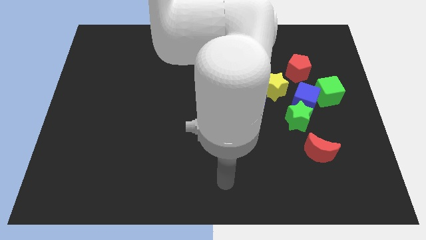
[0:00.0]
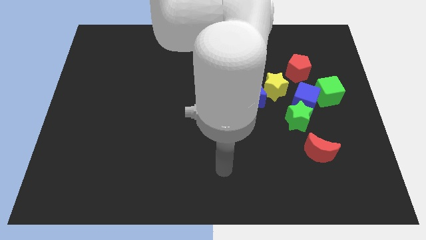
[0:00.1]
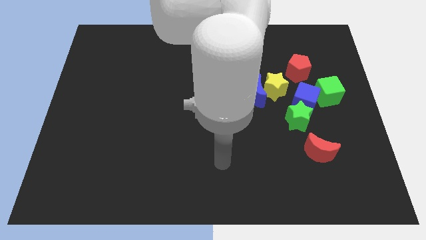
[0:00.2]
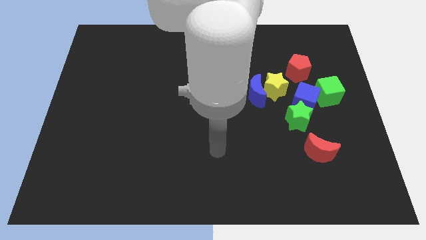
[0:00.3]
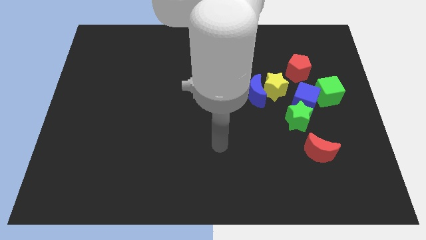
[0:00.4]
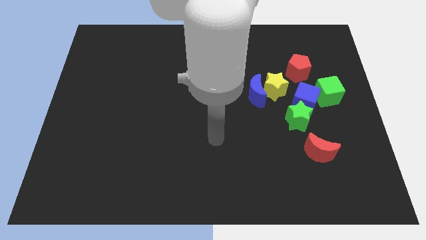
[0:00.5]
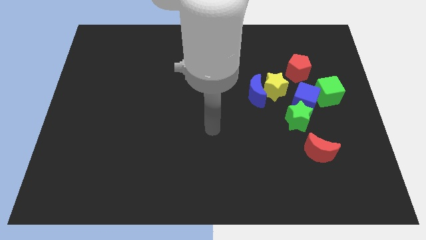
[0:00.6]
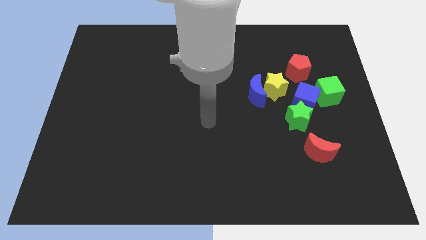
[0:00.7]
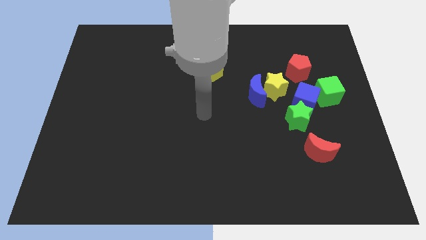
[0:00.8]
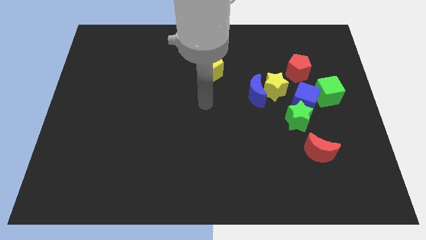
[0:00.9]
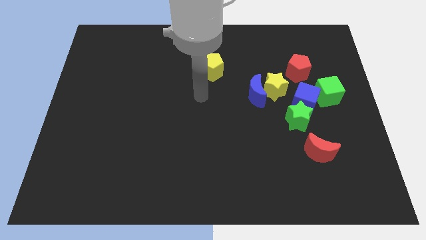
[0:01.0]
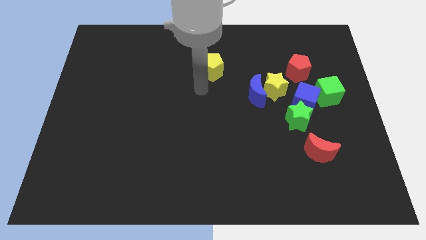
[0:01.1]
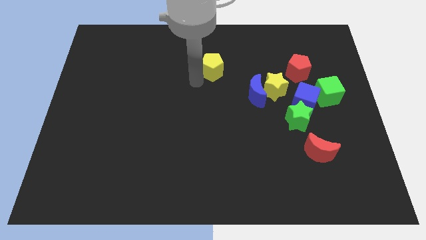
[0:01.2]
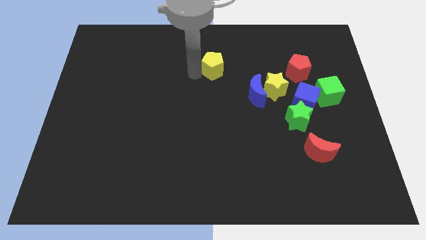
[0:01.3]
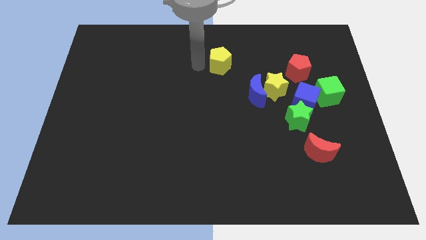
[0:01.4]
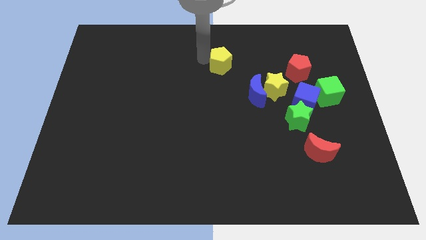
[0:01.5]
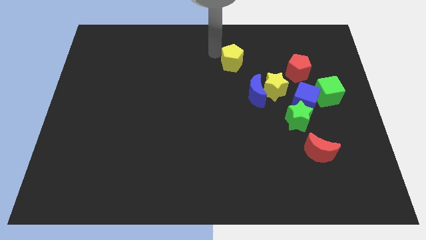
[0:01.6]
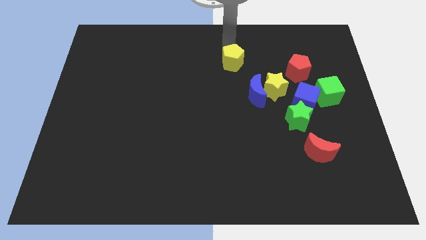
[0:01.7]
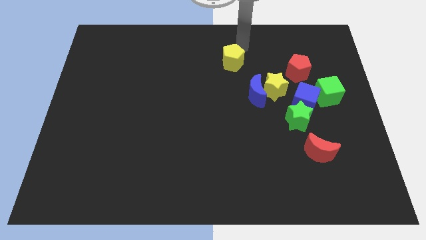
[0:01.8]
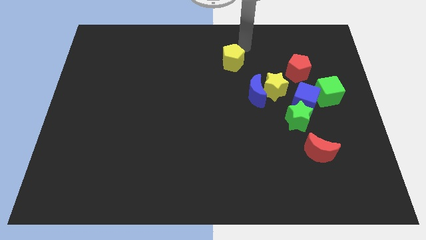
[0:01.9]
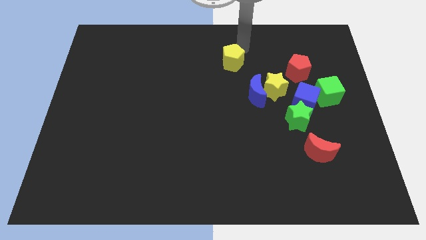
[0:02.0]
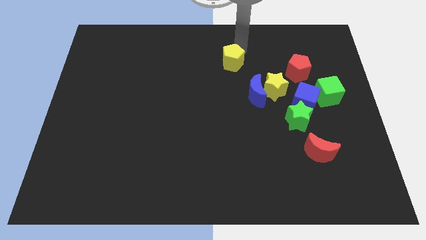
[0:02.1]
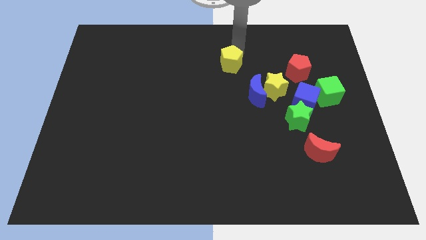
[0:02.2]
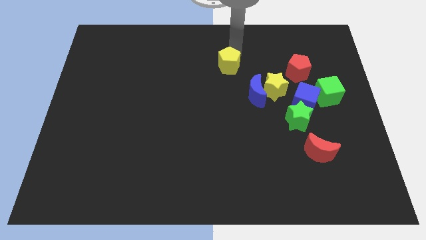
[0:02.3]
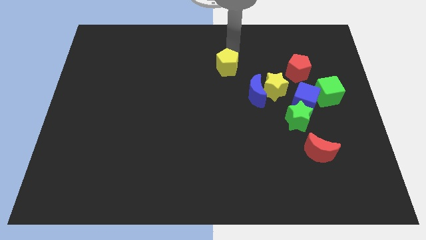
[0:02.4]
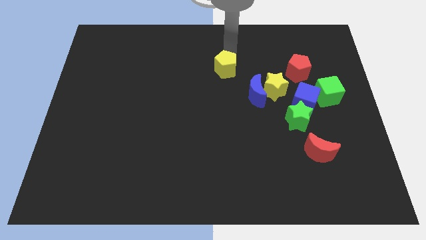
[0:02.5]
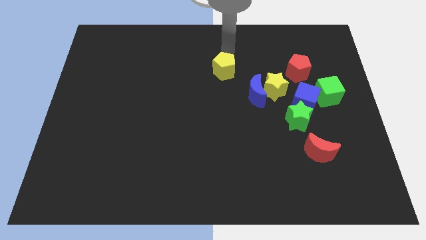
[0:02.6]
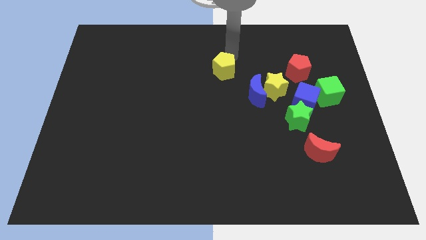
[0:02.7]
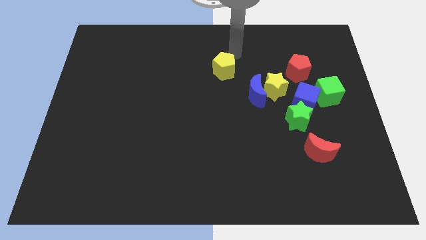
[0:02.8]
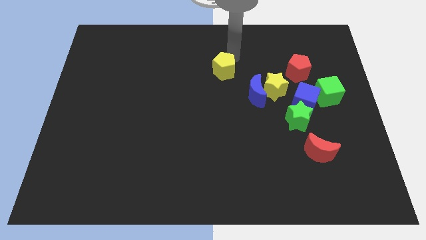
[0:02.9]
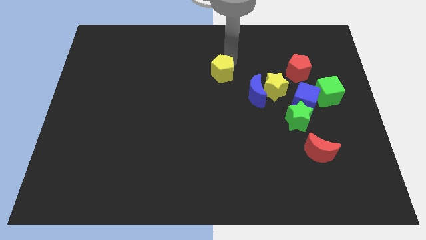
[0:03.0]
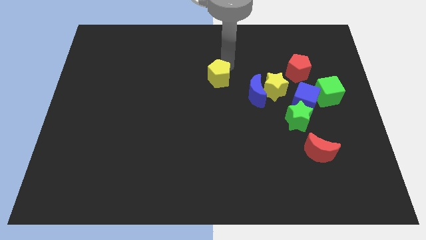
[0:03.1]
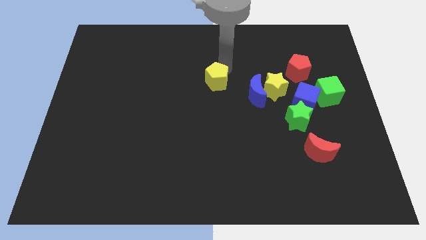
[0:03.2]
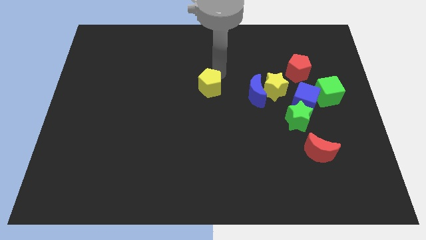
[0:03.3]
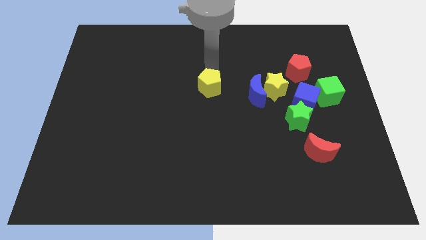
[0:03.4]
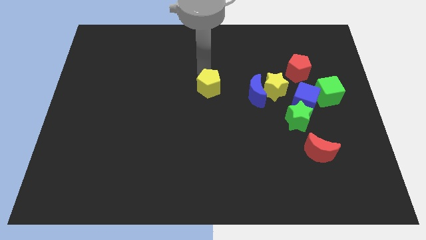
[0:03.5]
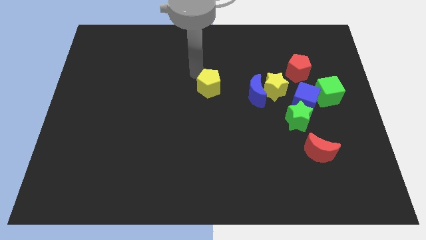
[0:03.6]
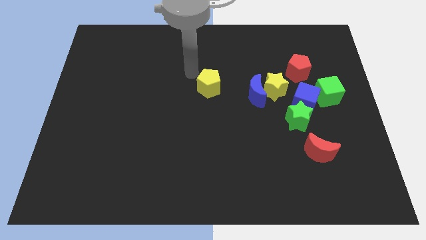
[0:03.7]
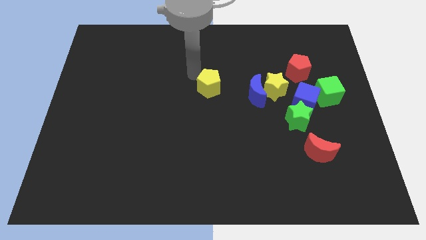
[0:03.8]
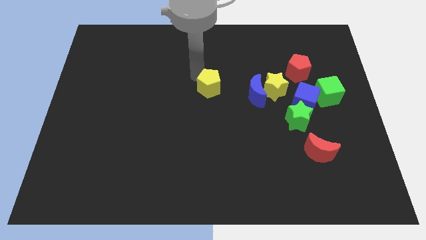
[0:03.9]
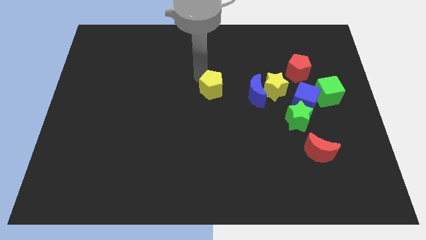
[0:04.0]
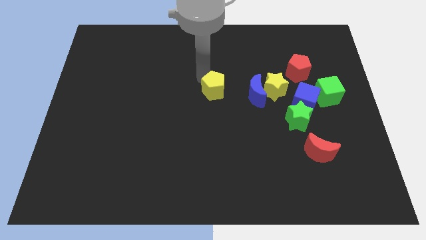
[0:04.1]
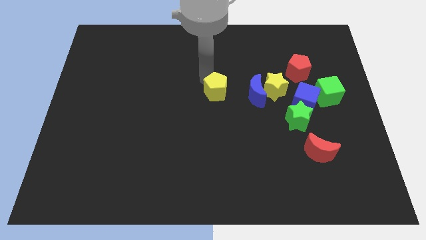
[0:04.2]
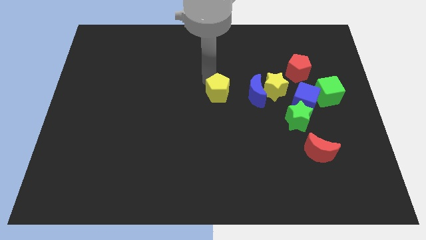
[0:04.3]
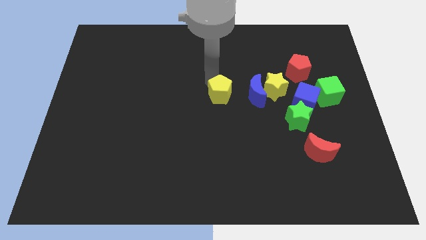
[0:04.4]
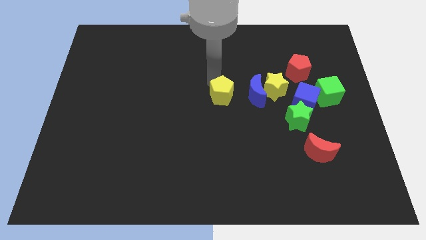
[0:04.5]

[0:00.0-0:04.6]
slide the yellow pentagon diagonally downwards and right somewhat

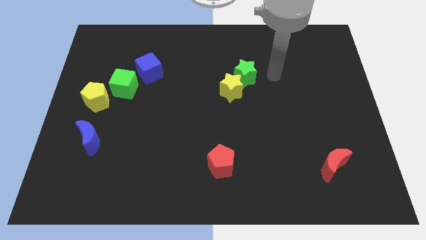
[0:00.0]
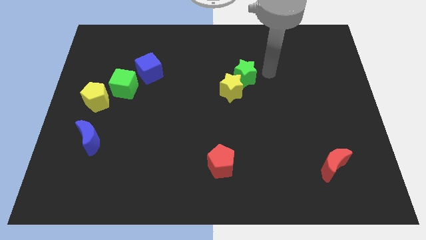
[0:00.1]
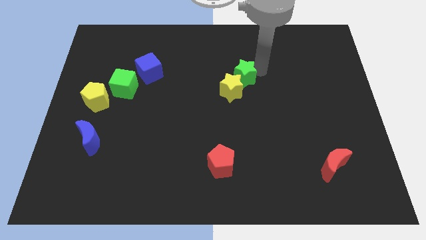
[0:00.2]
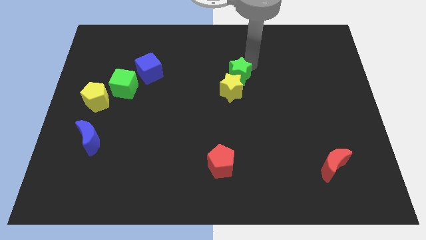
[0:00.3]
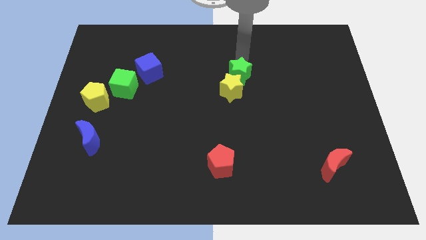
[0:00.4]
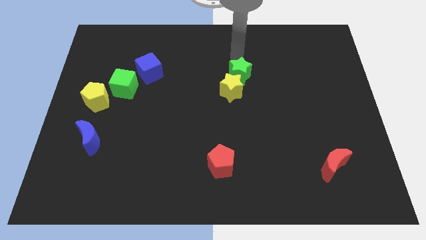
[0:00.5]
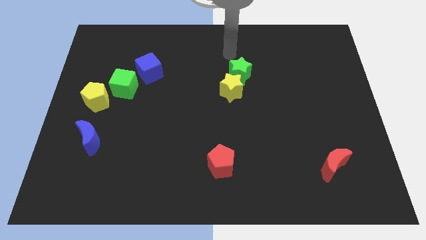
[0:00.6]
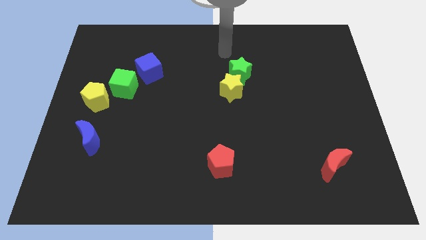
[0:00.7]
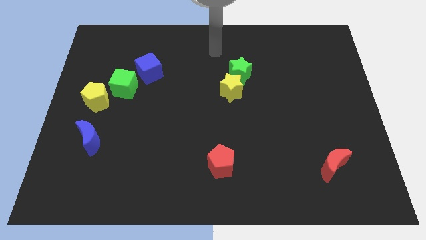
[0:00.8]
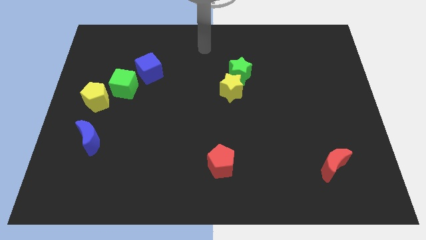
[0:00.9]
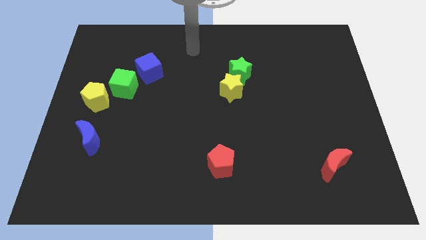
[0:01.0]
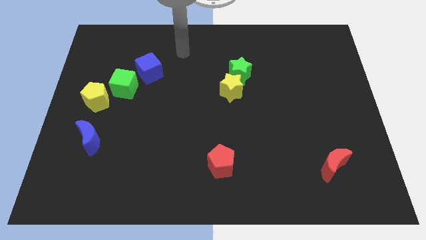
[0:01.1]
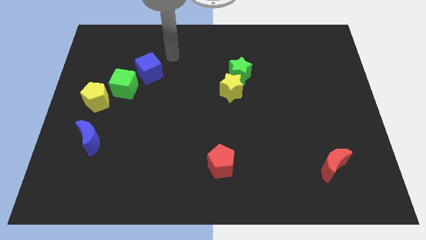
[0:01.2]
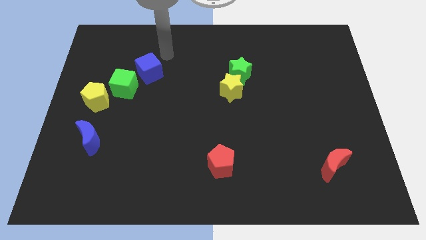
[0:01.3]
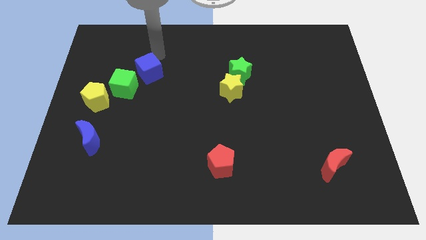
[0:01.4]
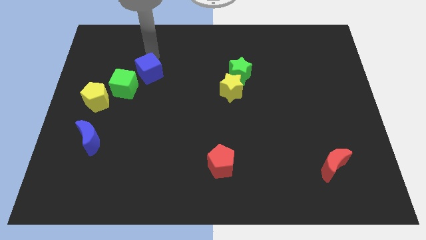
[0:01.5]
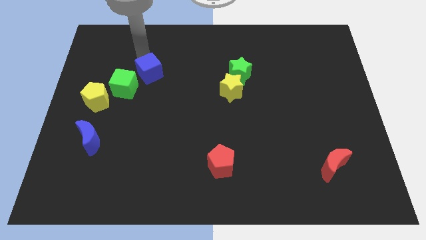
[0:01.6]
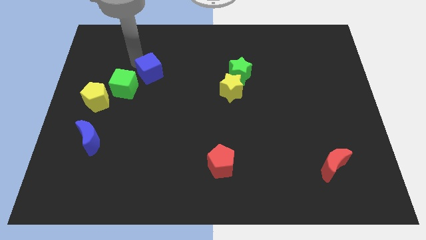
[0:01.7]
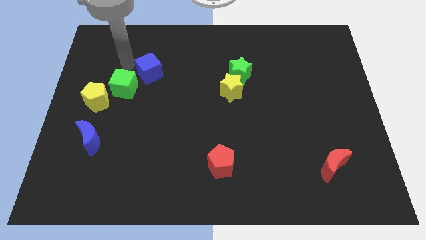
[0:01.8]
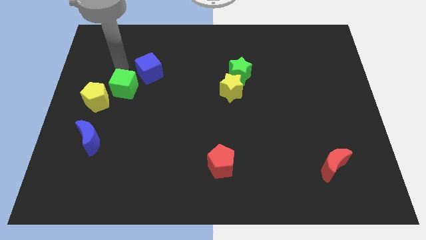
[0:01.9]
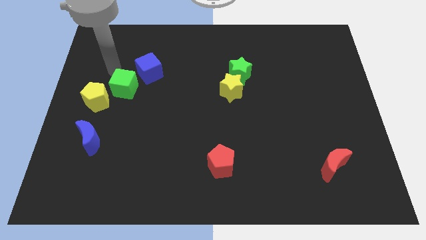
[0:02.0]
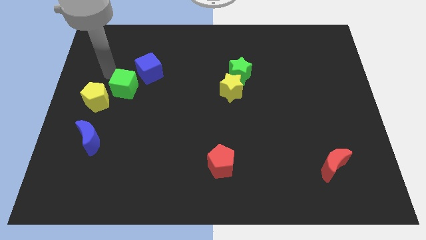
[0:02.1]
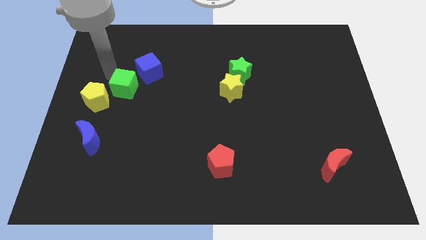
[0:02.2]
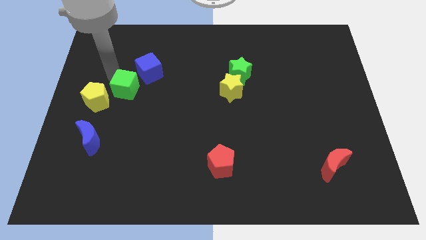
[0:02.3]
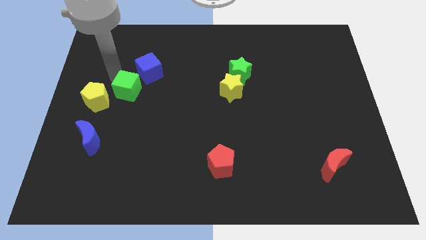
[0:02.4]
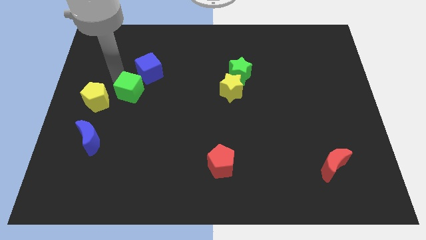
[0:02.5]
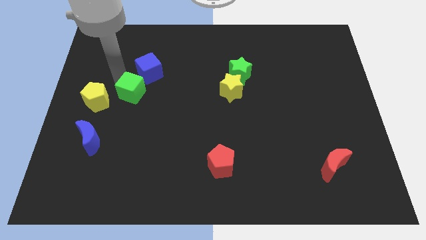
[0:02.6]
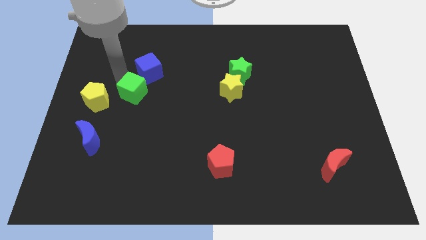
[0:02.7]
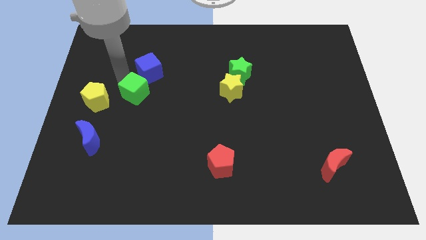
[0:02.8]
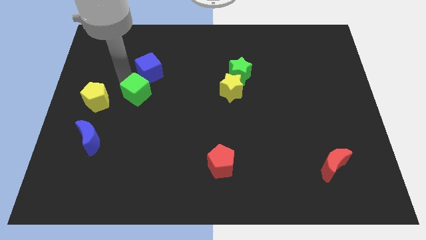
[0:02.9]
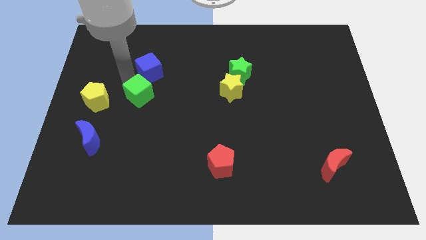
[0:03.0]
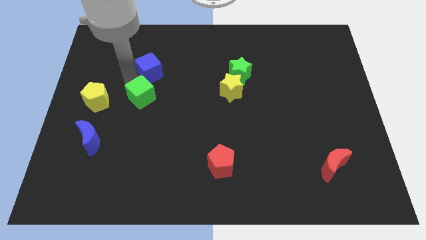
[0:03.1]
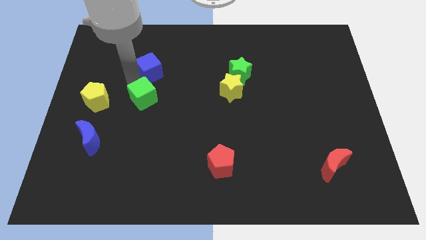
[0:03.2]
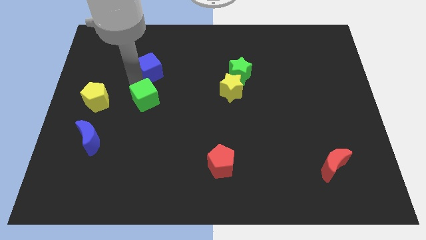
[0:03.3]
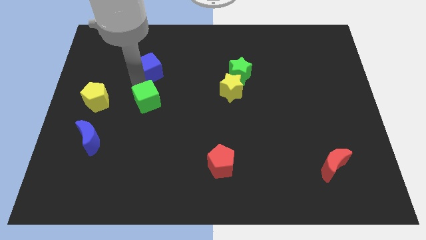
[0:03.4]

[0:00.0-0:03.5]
slightly move the green cube downwards and right diagonally

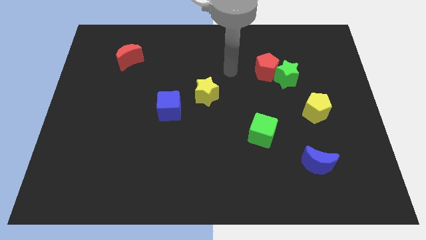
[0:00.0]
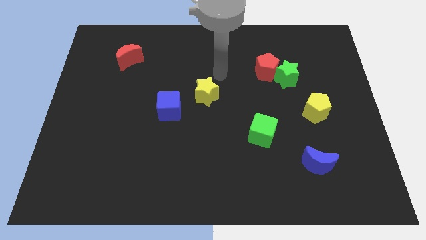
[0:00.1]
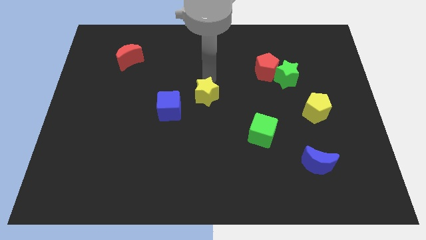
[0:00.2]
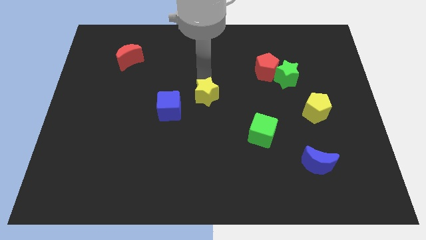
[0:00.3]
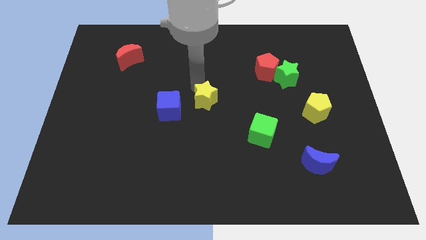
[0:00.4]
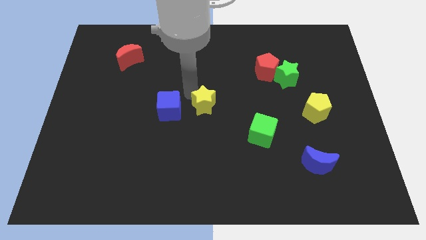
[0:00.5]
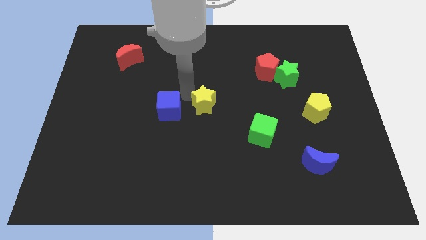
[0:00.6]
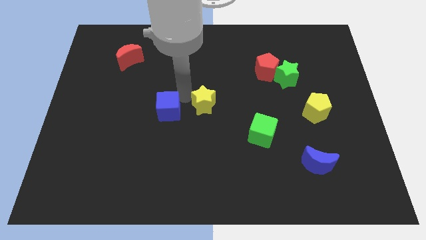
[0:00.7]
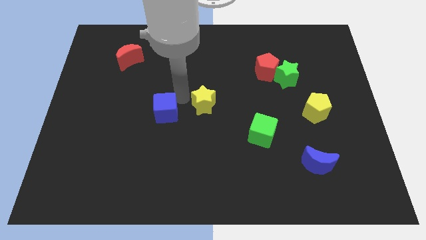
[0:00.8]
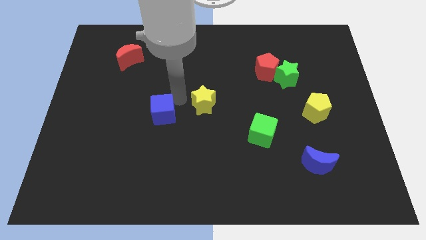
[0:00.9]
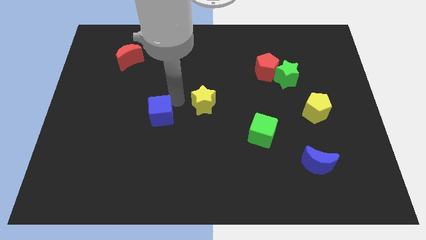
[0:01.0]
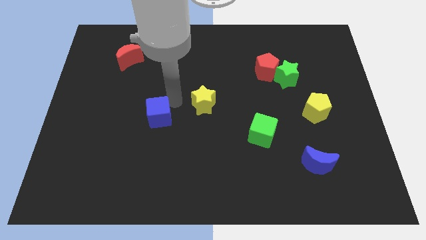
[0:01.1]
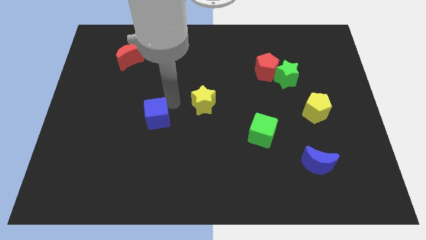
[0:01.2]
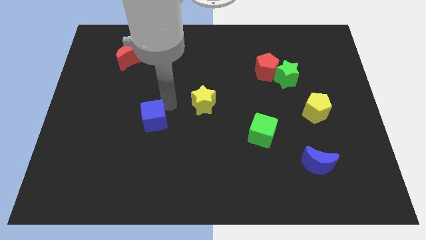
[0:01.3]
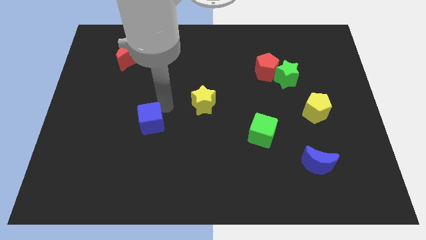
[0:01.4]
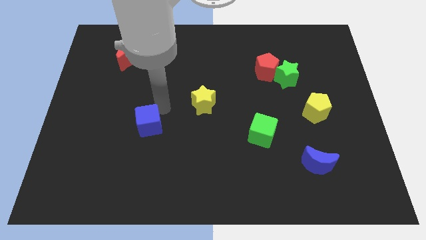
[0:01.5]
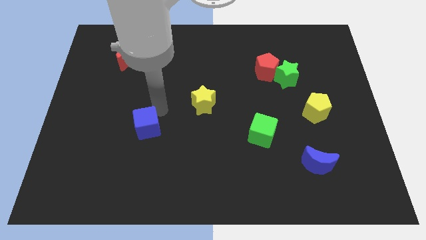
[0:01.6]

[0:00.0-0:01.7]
slide the blue cube a little bit downwards and left diagonally
